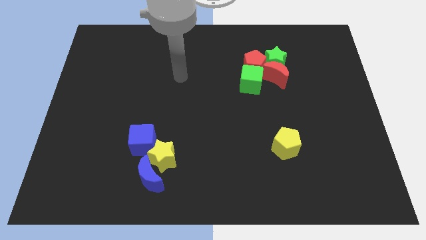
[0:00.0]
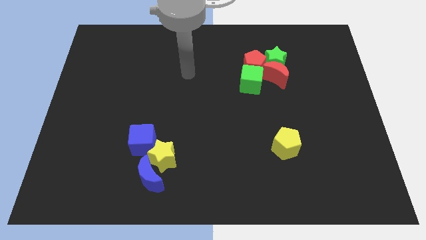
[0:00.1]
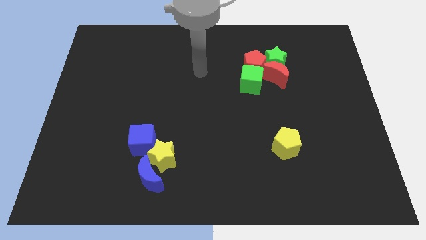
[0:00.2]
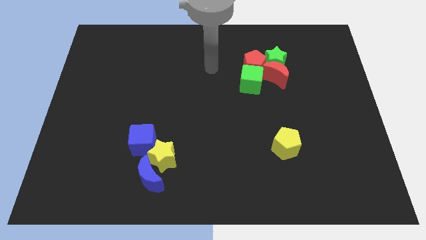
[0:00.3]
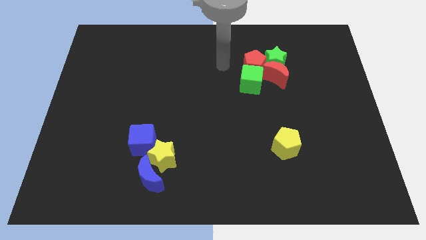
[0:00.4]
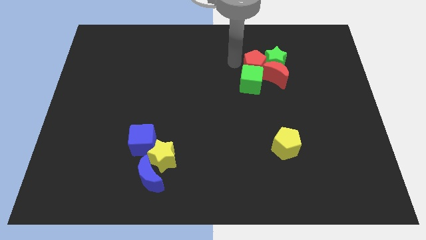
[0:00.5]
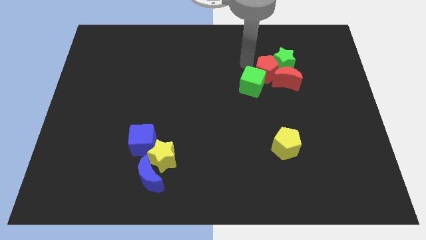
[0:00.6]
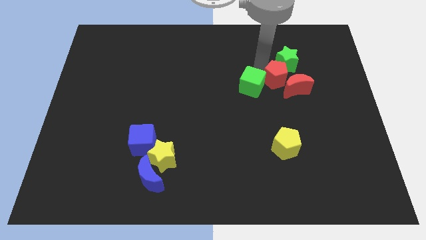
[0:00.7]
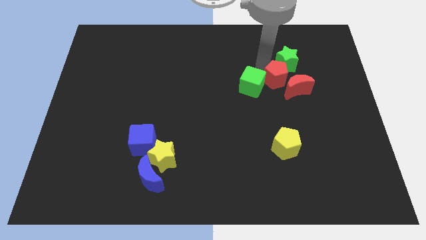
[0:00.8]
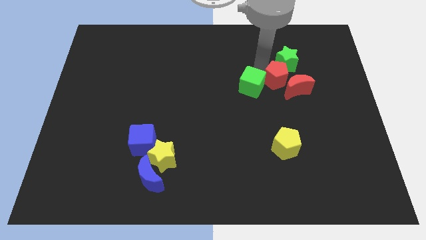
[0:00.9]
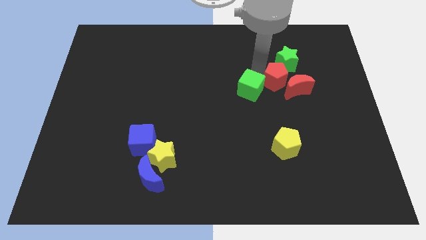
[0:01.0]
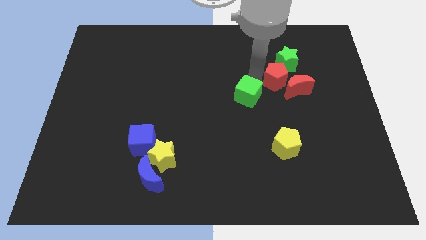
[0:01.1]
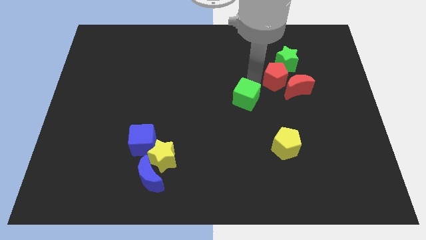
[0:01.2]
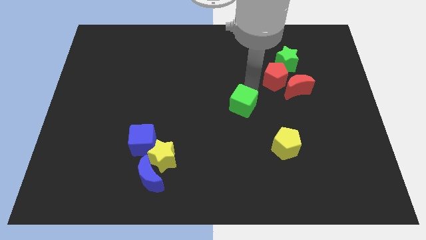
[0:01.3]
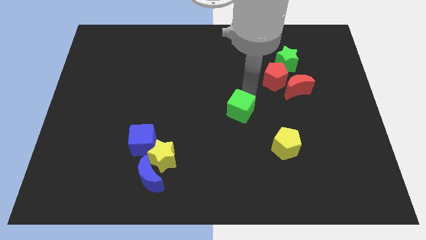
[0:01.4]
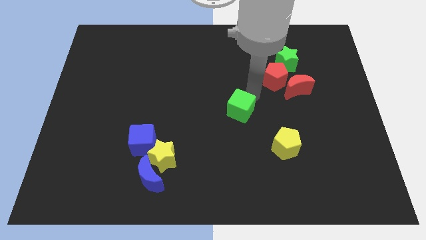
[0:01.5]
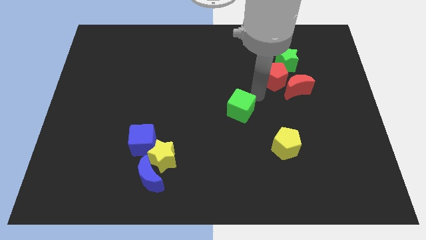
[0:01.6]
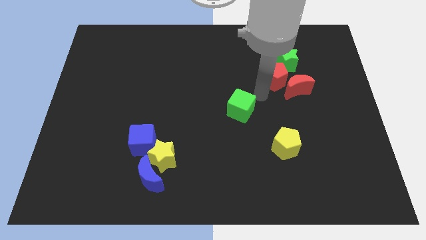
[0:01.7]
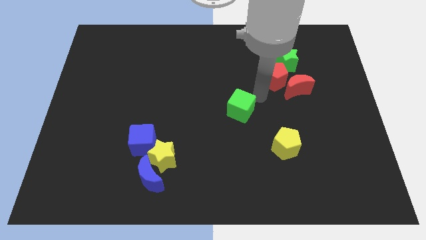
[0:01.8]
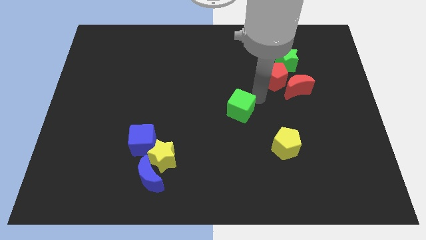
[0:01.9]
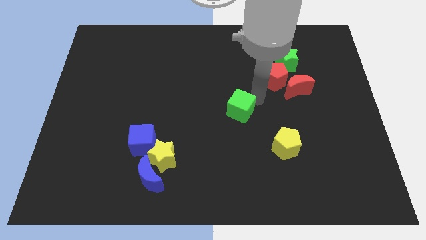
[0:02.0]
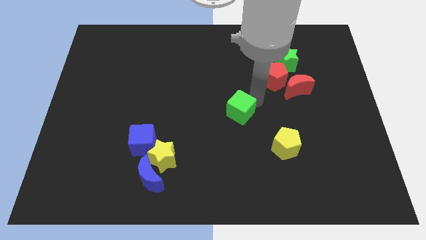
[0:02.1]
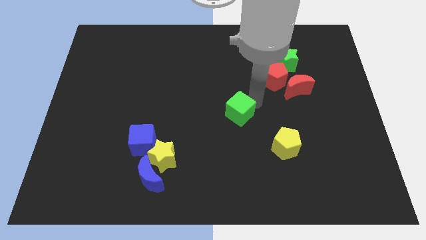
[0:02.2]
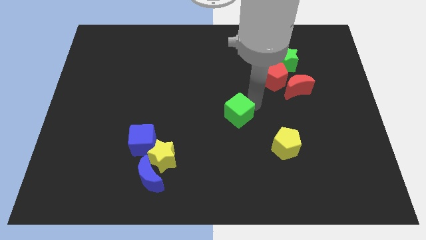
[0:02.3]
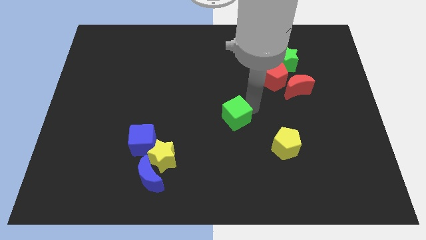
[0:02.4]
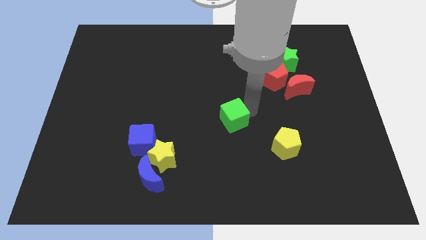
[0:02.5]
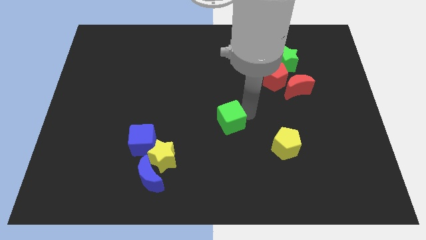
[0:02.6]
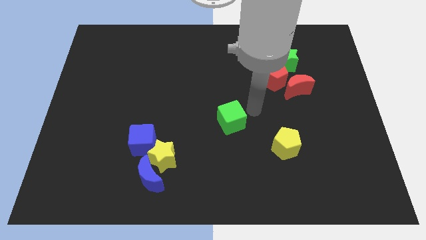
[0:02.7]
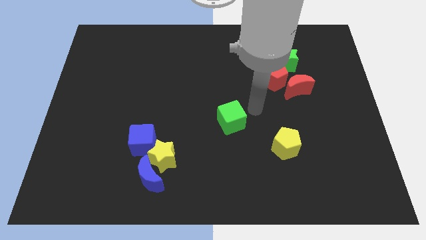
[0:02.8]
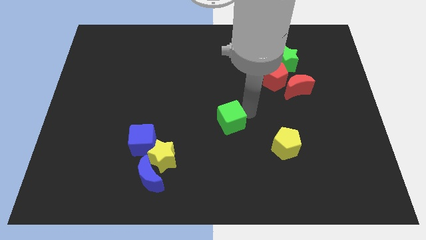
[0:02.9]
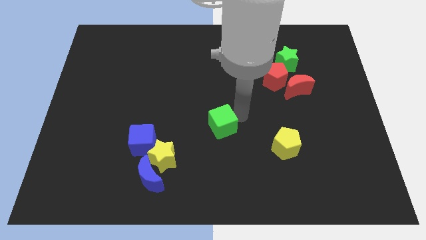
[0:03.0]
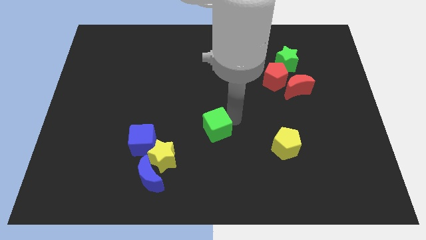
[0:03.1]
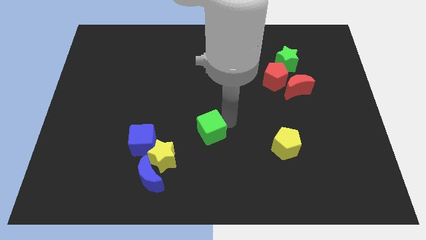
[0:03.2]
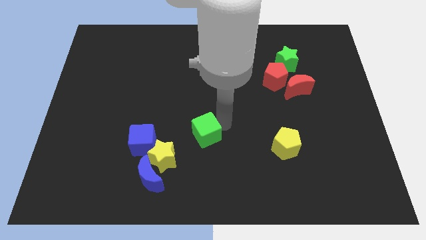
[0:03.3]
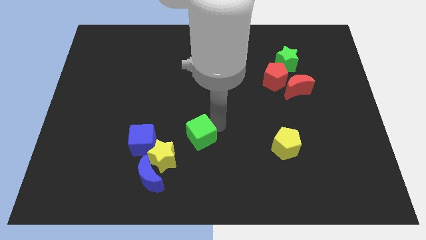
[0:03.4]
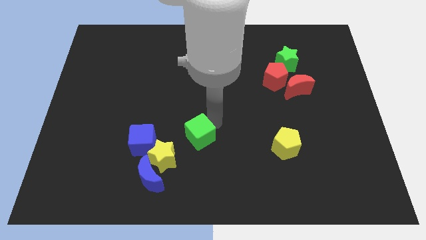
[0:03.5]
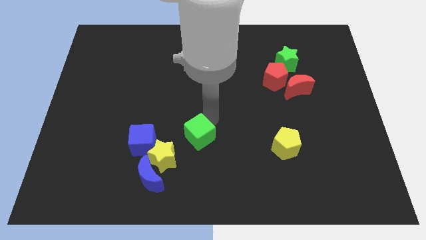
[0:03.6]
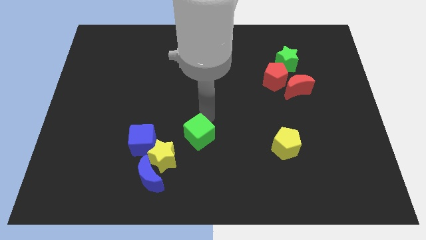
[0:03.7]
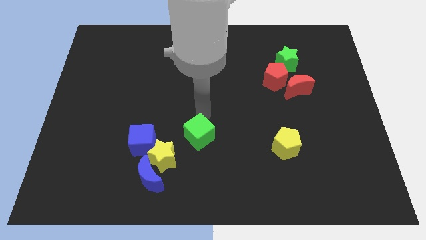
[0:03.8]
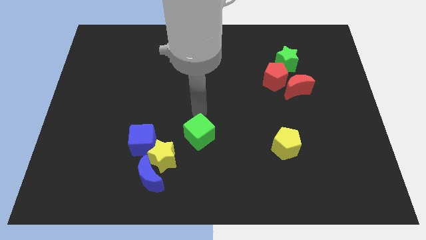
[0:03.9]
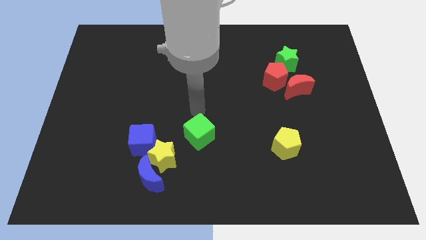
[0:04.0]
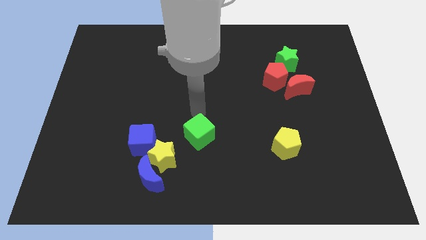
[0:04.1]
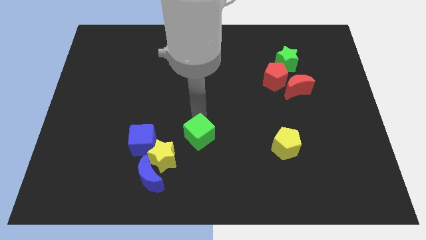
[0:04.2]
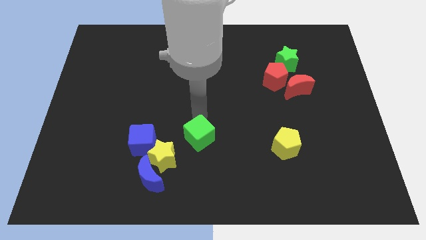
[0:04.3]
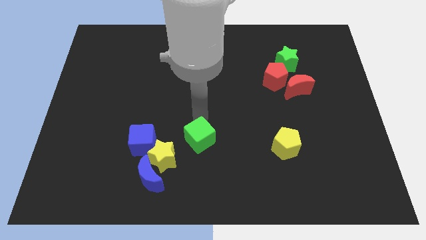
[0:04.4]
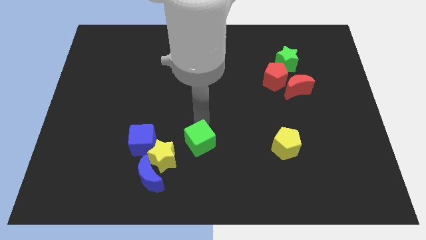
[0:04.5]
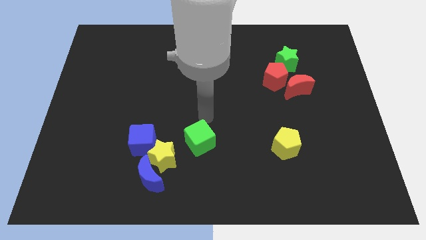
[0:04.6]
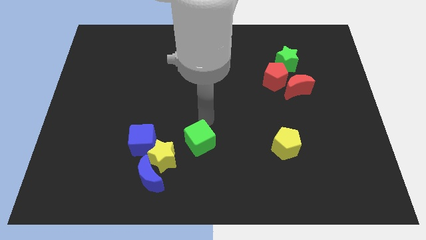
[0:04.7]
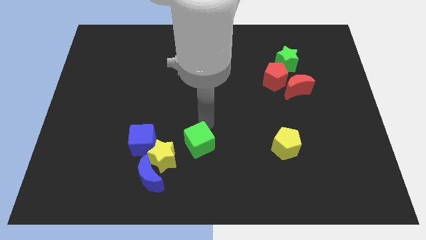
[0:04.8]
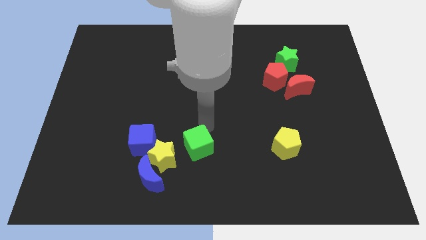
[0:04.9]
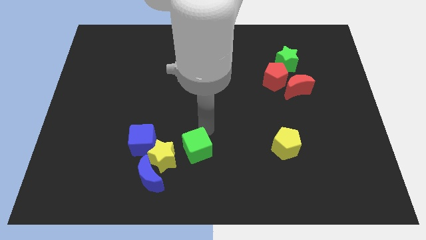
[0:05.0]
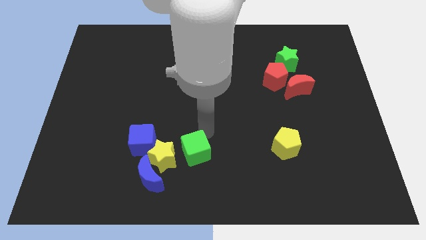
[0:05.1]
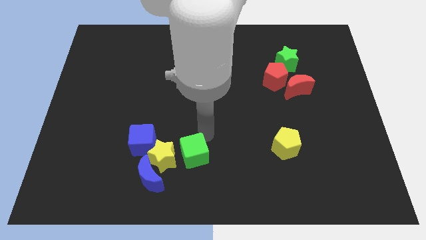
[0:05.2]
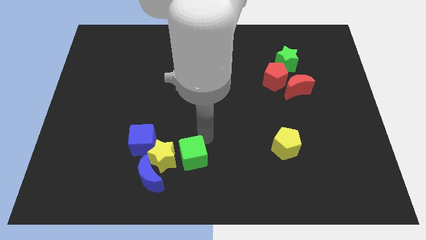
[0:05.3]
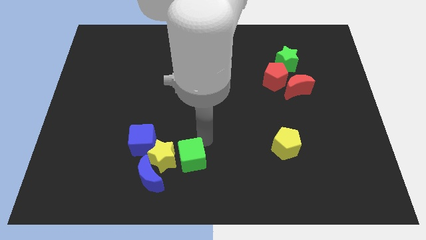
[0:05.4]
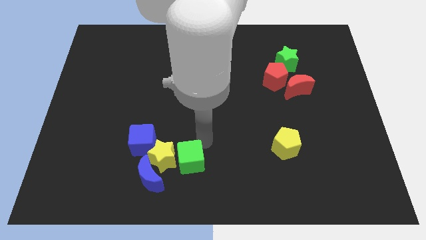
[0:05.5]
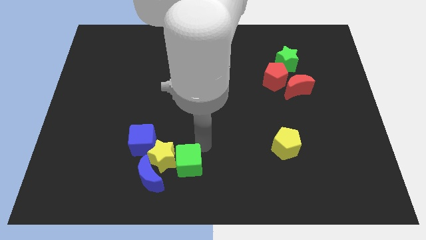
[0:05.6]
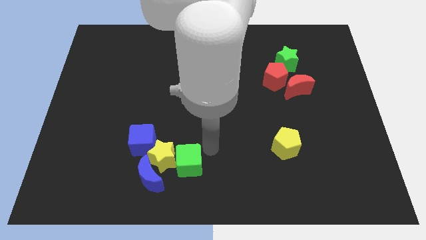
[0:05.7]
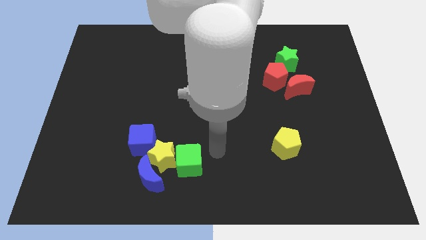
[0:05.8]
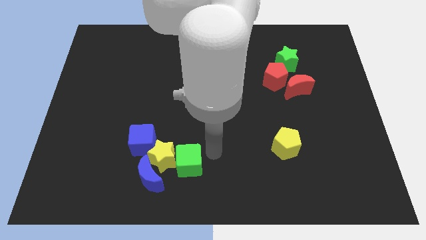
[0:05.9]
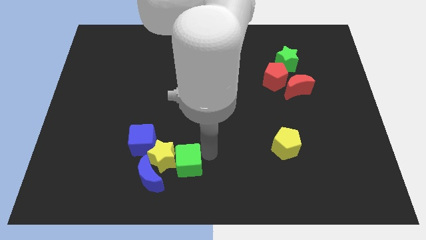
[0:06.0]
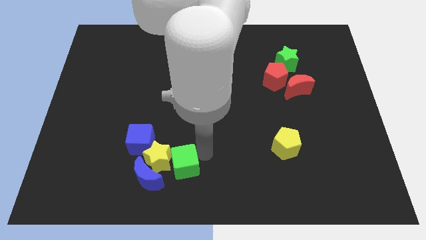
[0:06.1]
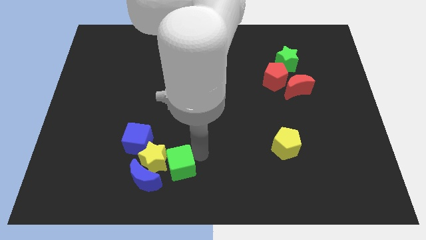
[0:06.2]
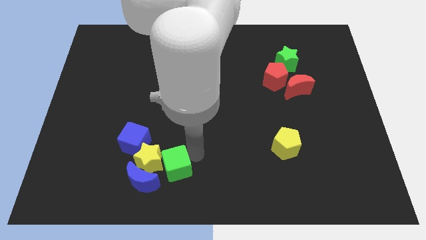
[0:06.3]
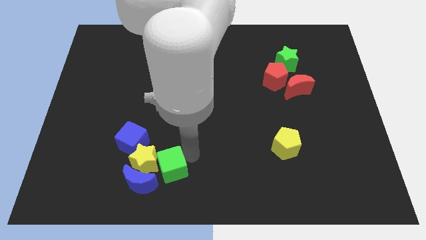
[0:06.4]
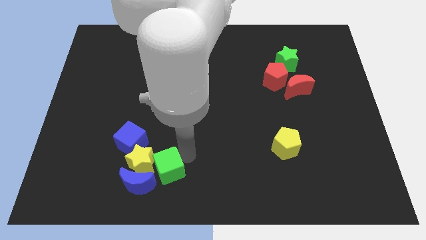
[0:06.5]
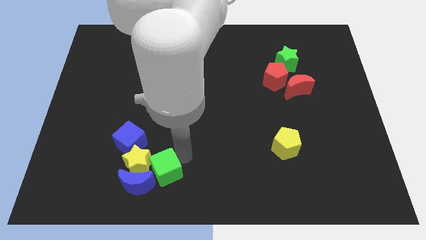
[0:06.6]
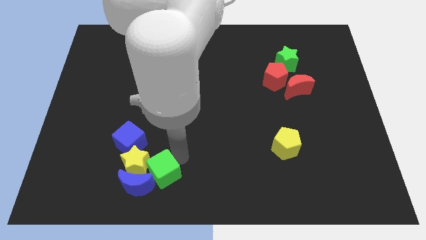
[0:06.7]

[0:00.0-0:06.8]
move the green cube next to the blue moon
